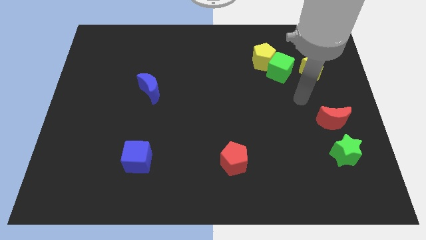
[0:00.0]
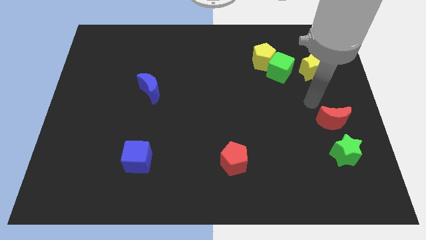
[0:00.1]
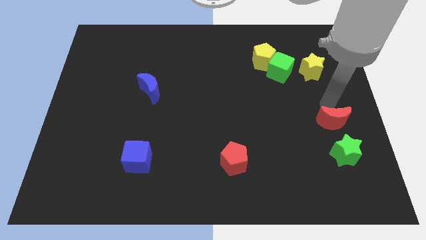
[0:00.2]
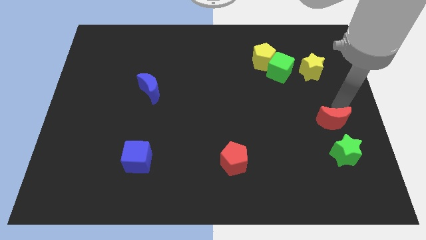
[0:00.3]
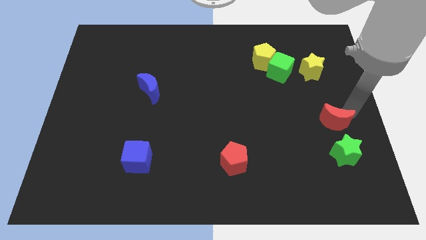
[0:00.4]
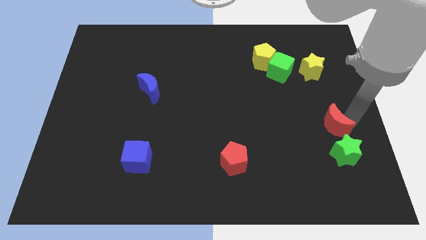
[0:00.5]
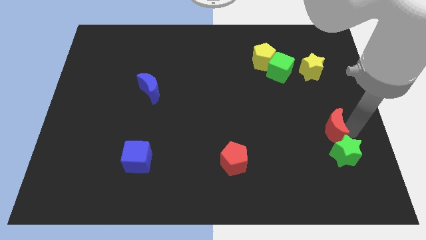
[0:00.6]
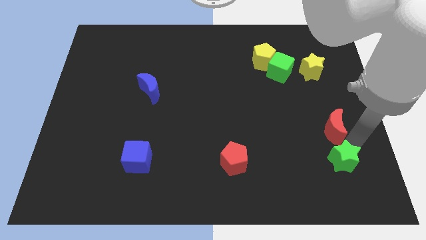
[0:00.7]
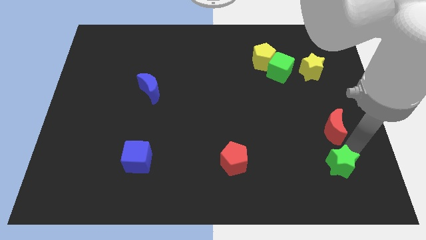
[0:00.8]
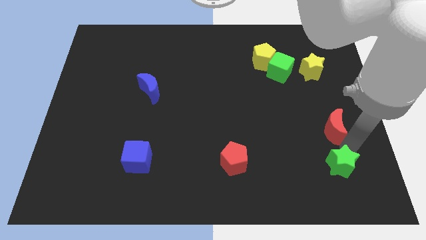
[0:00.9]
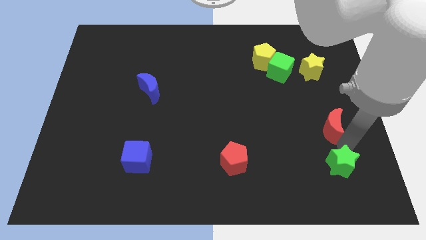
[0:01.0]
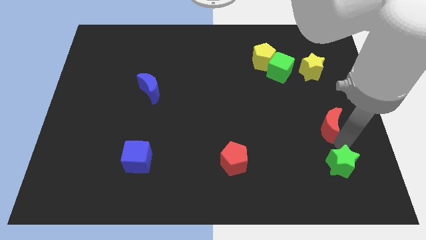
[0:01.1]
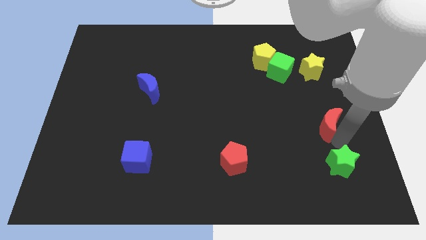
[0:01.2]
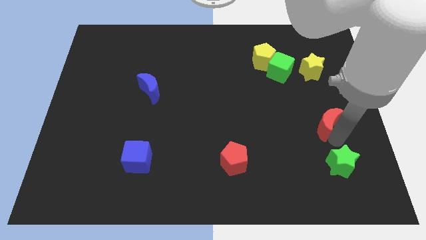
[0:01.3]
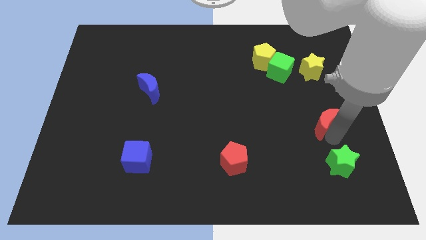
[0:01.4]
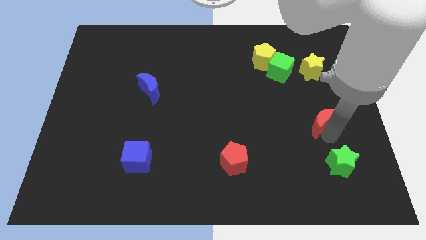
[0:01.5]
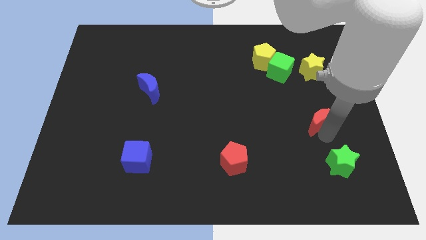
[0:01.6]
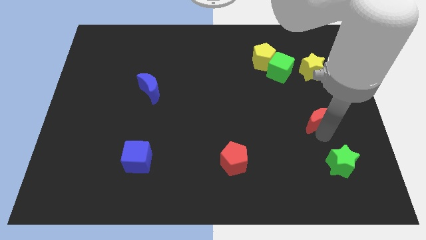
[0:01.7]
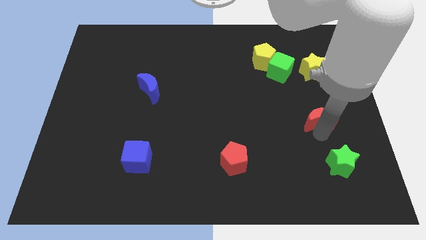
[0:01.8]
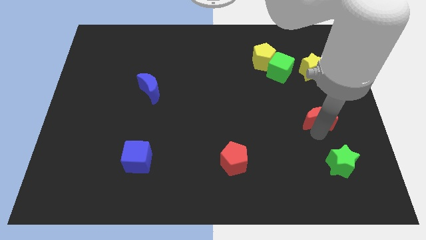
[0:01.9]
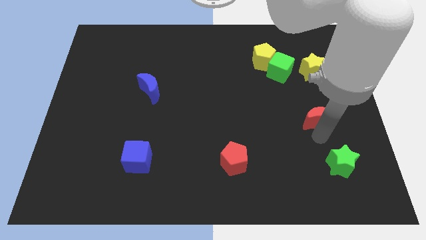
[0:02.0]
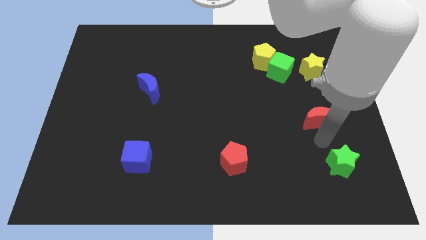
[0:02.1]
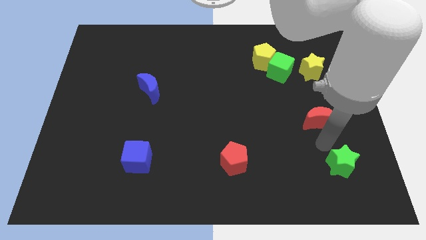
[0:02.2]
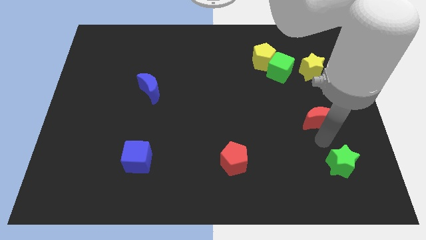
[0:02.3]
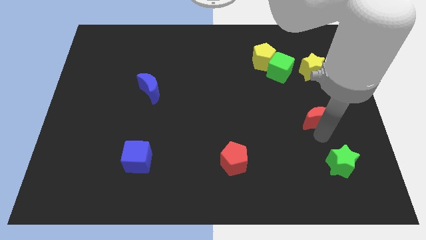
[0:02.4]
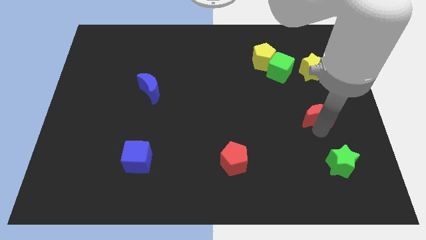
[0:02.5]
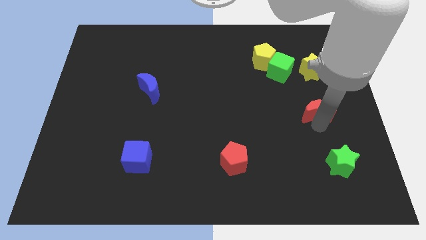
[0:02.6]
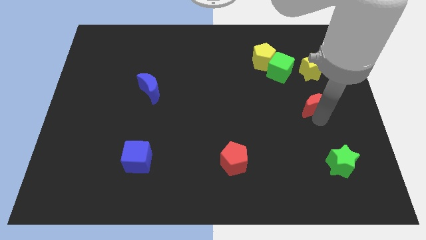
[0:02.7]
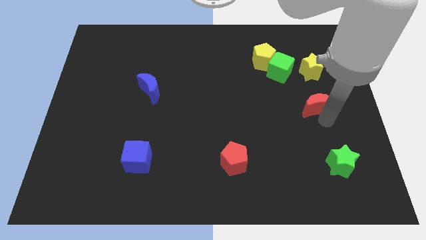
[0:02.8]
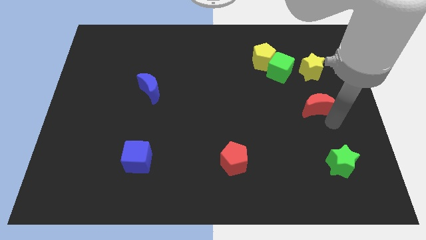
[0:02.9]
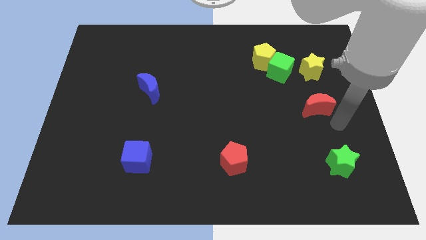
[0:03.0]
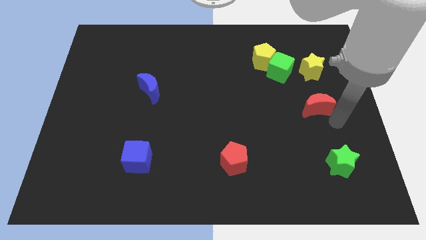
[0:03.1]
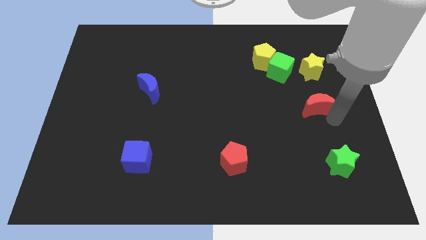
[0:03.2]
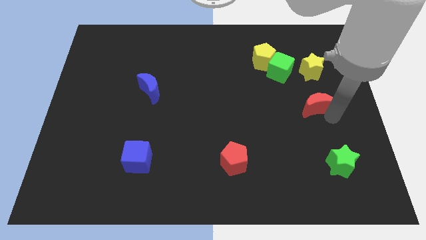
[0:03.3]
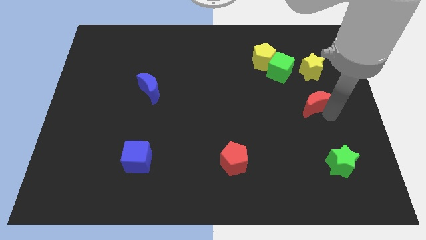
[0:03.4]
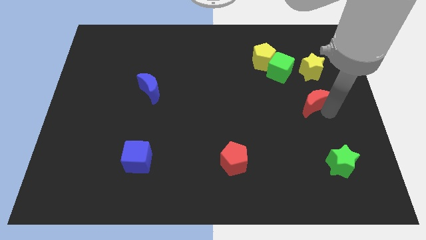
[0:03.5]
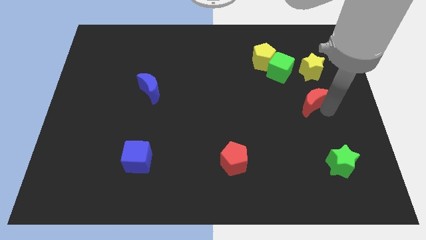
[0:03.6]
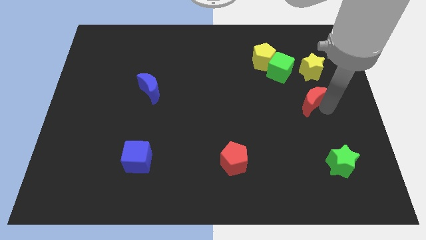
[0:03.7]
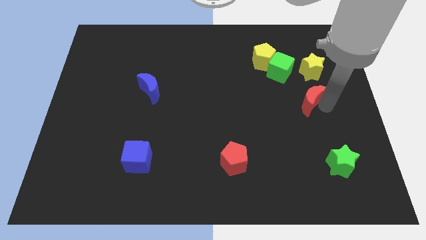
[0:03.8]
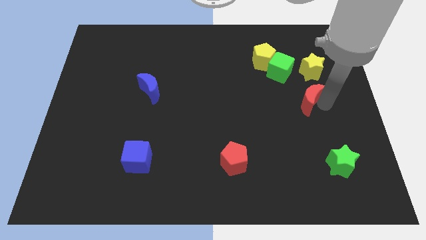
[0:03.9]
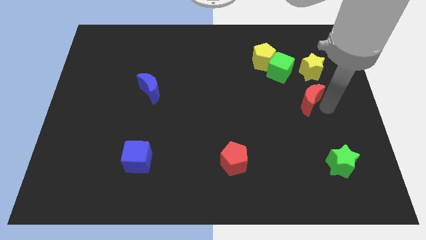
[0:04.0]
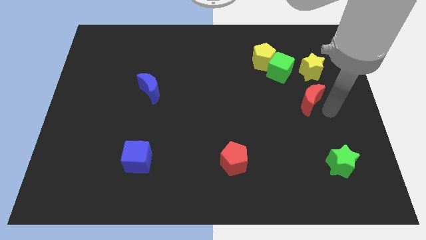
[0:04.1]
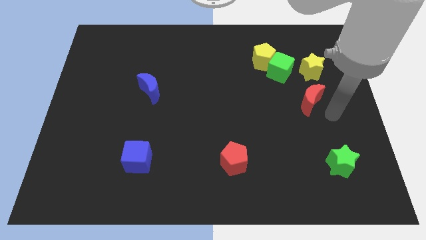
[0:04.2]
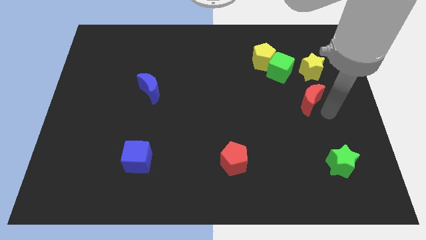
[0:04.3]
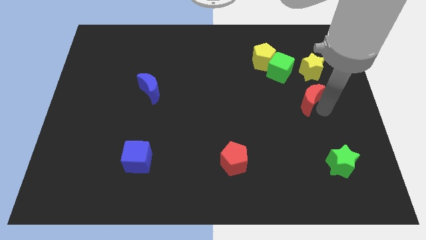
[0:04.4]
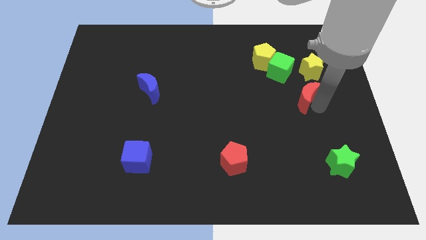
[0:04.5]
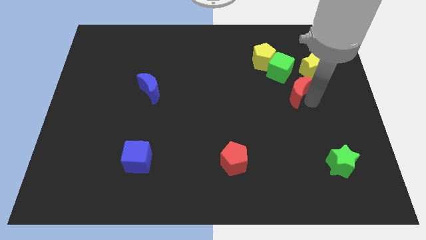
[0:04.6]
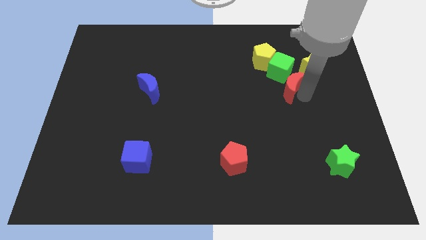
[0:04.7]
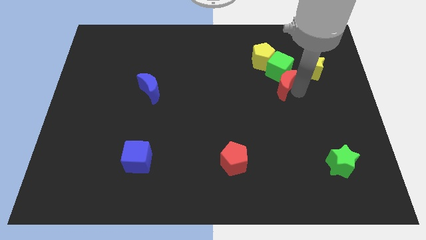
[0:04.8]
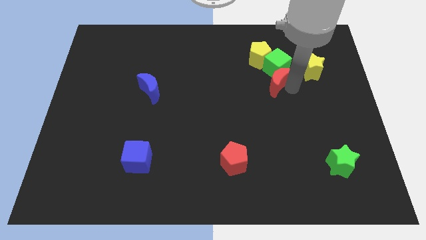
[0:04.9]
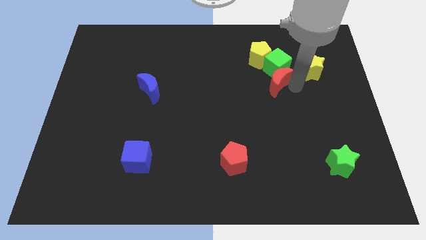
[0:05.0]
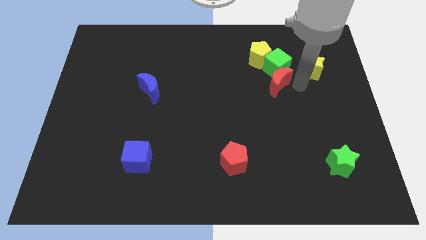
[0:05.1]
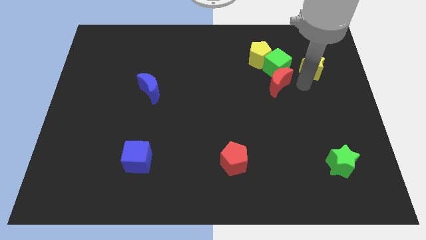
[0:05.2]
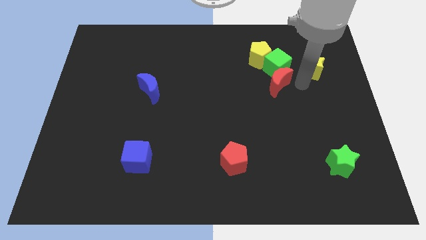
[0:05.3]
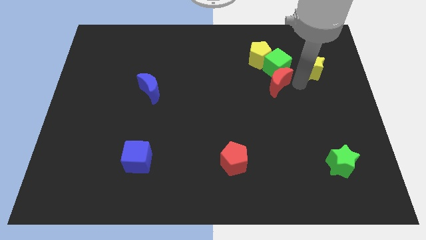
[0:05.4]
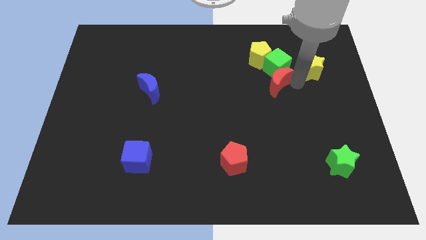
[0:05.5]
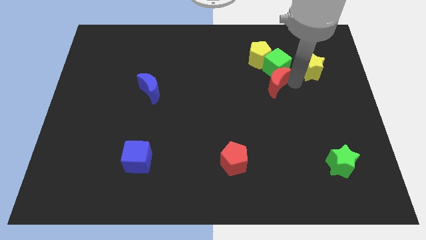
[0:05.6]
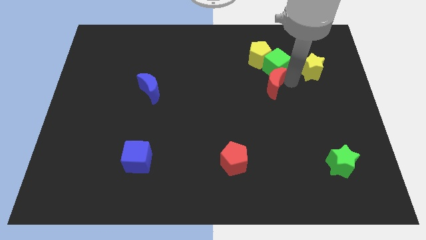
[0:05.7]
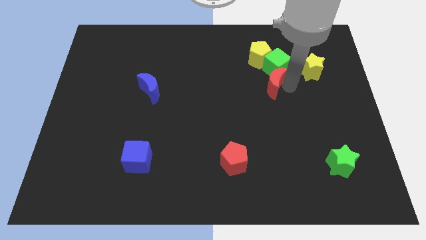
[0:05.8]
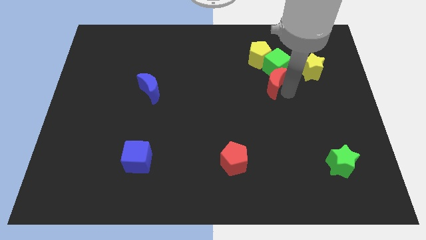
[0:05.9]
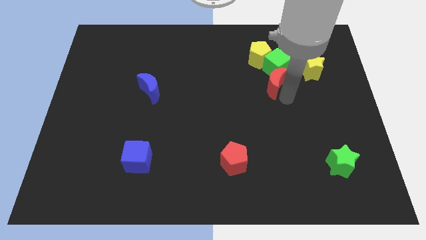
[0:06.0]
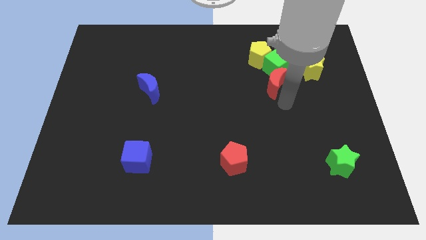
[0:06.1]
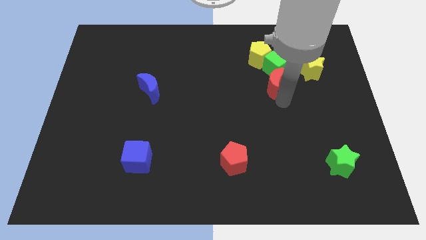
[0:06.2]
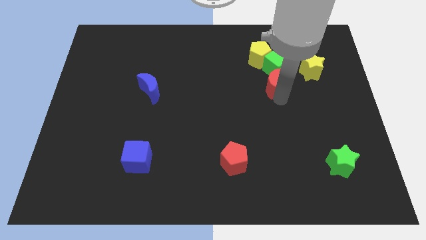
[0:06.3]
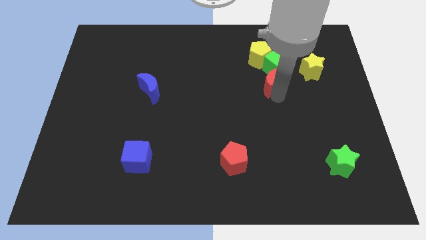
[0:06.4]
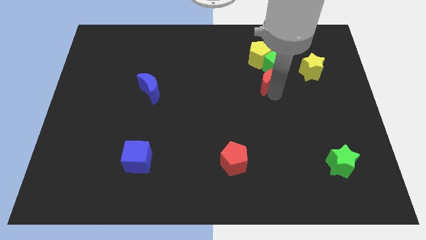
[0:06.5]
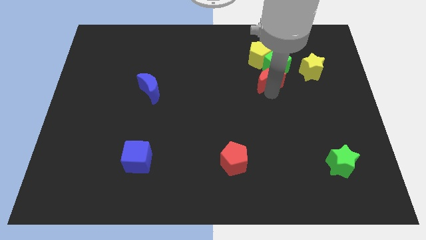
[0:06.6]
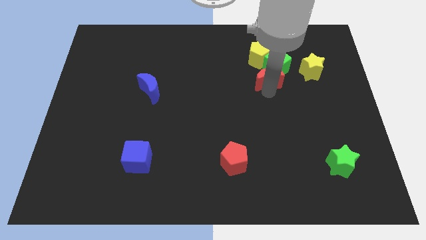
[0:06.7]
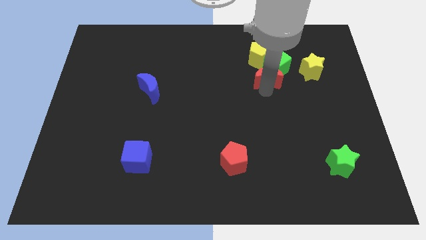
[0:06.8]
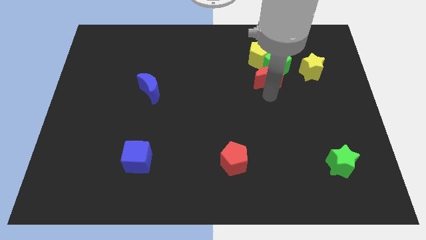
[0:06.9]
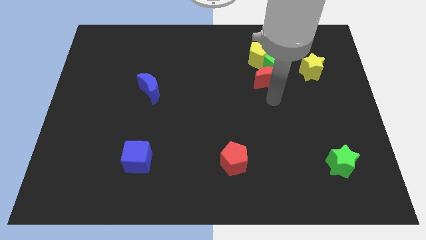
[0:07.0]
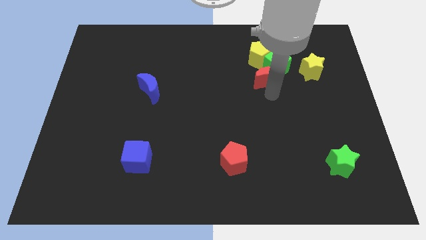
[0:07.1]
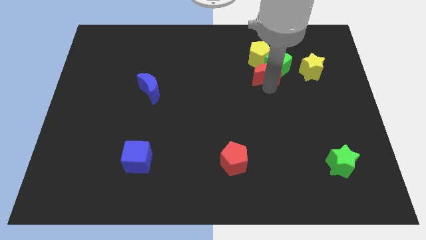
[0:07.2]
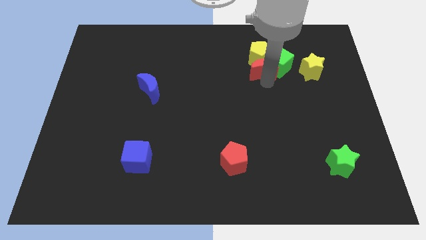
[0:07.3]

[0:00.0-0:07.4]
put the red moon close to the yellow pentagon
